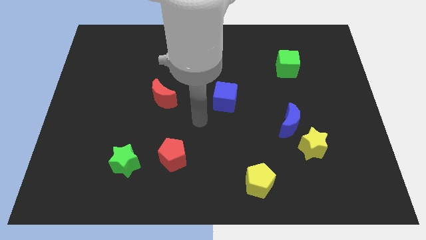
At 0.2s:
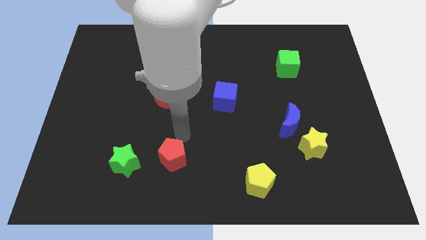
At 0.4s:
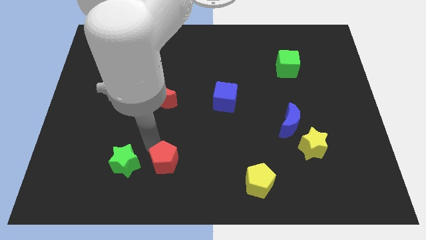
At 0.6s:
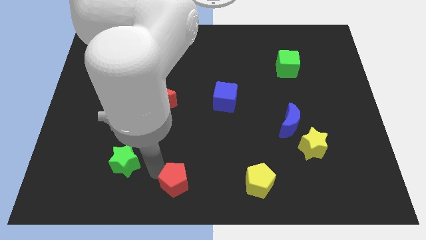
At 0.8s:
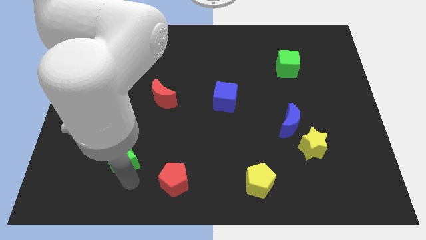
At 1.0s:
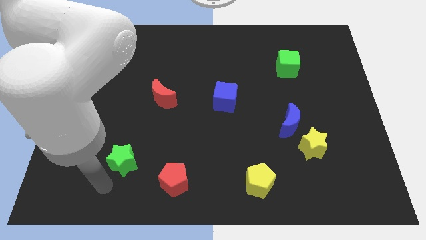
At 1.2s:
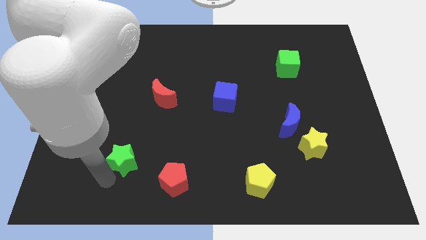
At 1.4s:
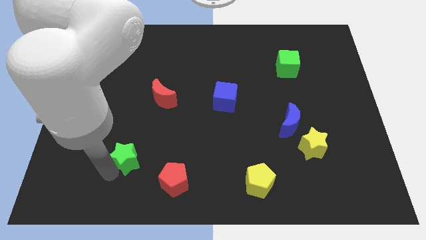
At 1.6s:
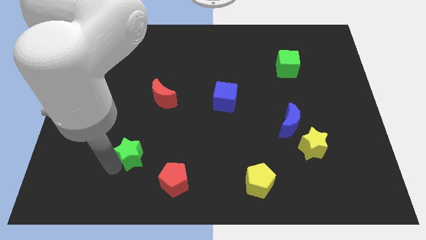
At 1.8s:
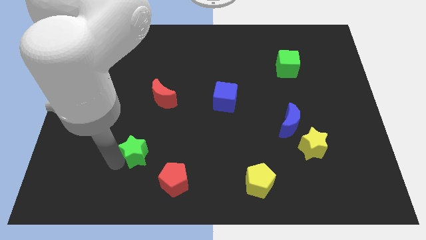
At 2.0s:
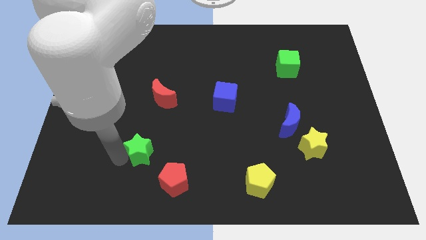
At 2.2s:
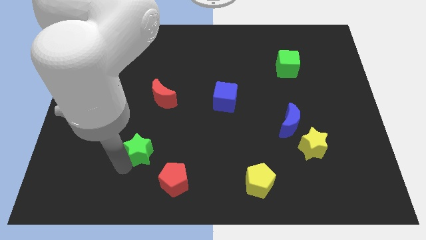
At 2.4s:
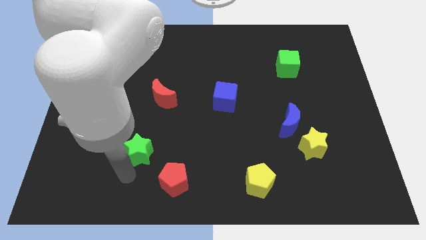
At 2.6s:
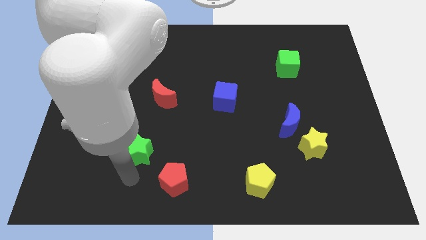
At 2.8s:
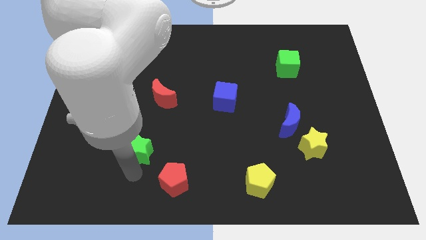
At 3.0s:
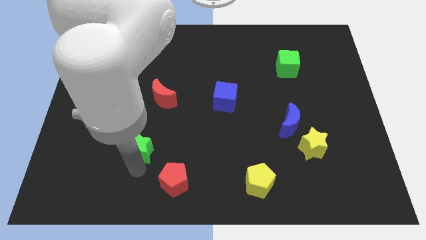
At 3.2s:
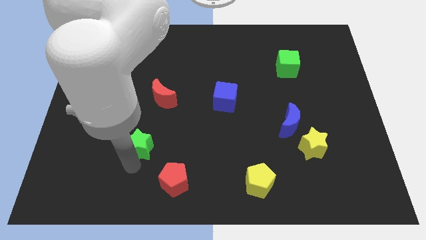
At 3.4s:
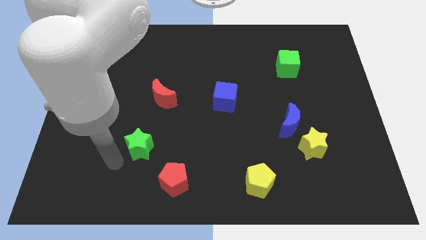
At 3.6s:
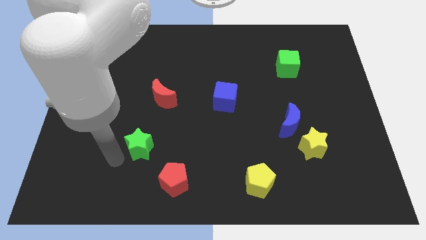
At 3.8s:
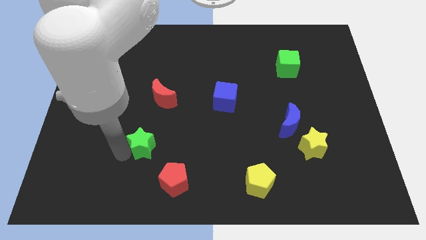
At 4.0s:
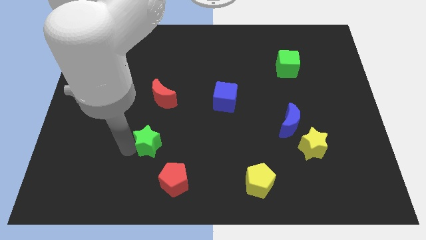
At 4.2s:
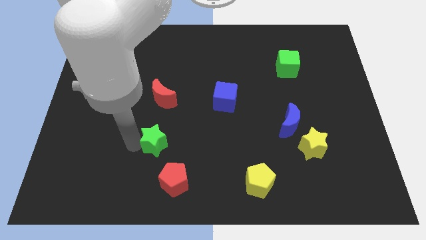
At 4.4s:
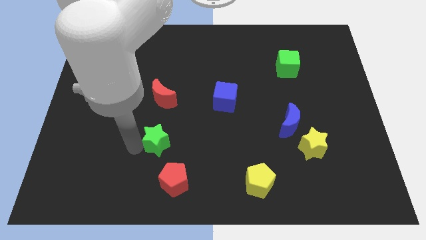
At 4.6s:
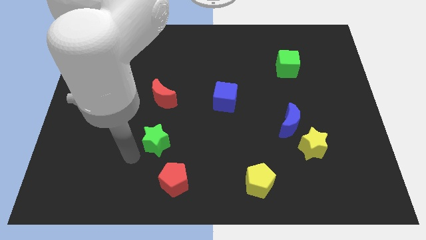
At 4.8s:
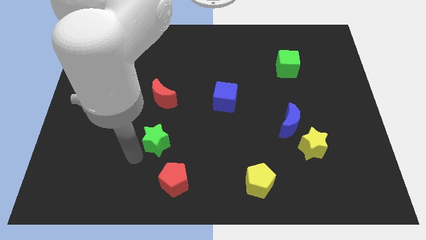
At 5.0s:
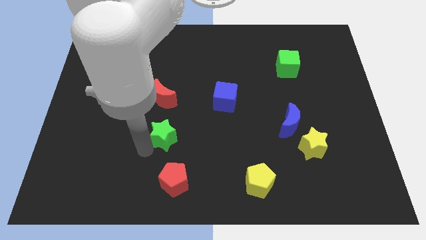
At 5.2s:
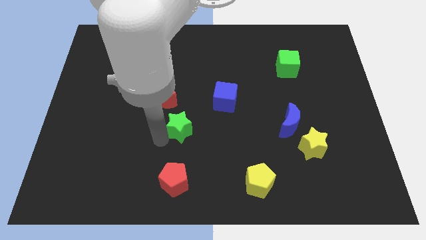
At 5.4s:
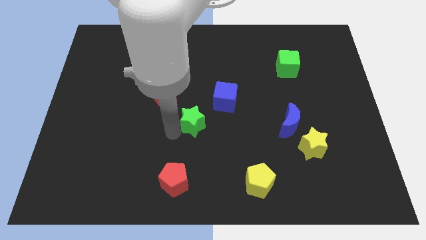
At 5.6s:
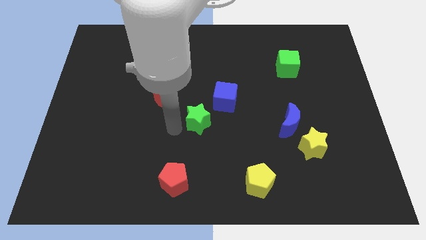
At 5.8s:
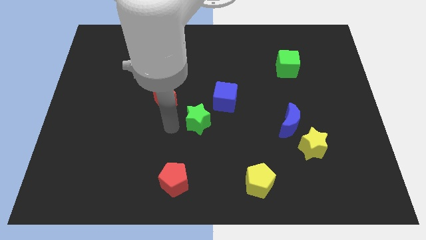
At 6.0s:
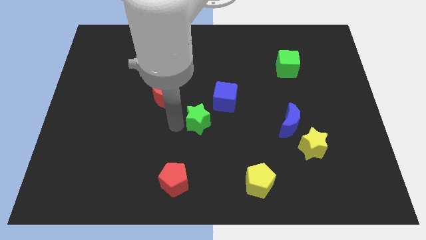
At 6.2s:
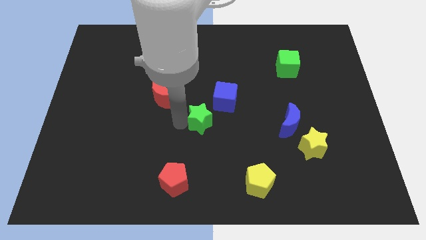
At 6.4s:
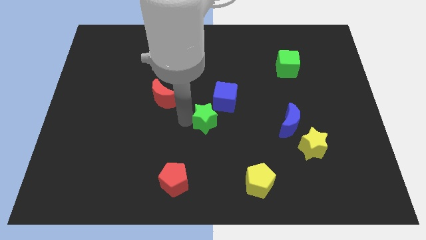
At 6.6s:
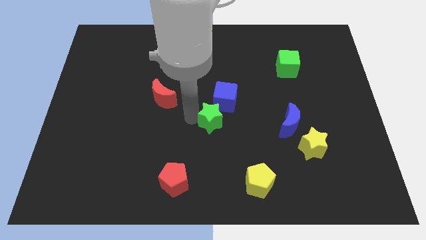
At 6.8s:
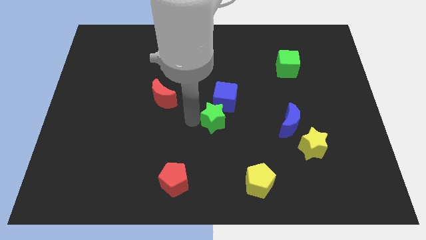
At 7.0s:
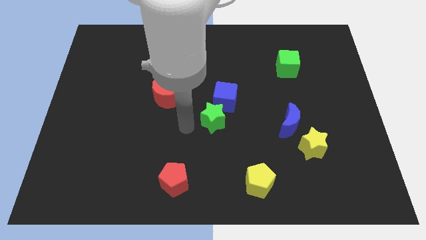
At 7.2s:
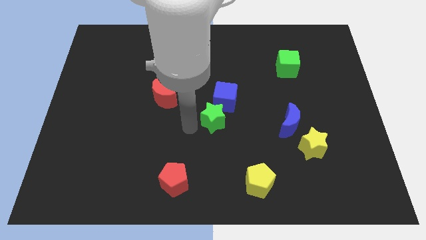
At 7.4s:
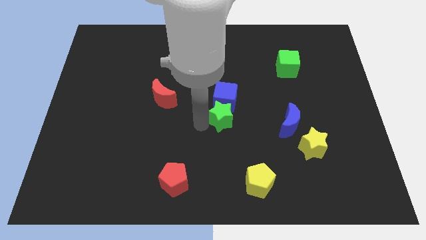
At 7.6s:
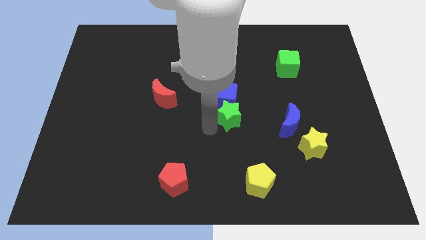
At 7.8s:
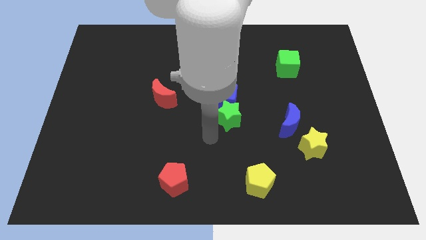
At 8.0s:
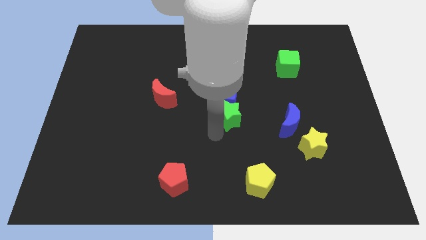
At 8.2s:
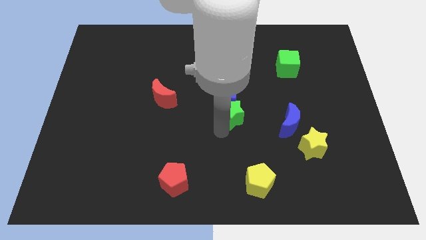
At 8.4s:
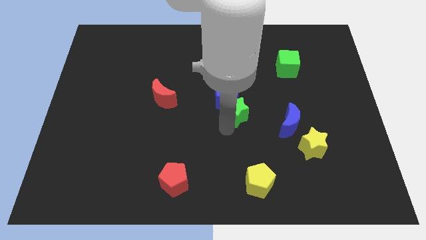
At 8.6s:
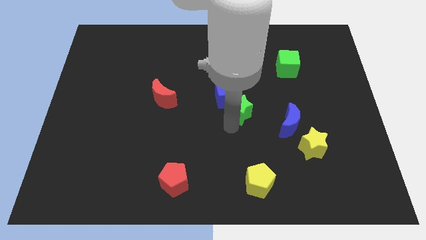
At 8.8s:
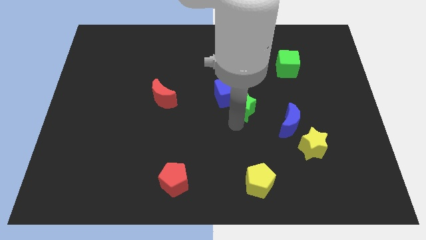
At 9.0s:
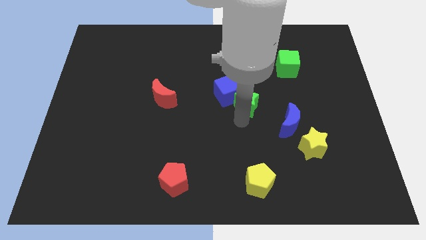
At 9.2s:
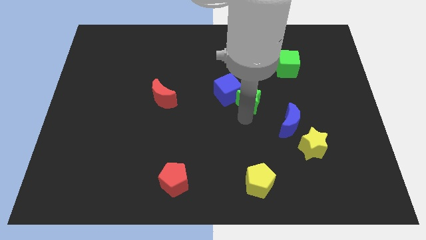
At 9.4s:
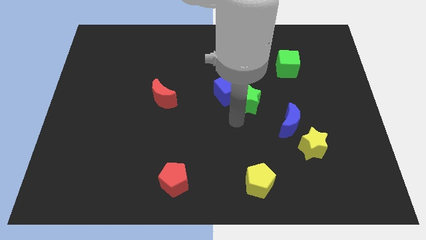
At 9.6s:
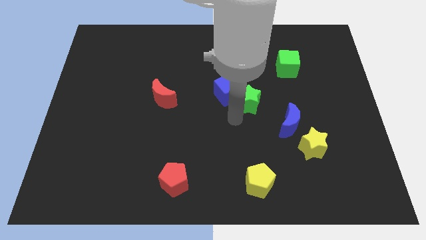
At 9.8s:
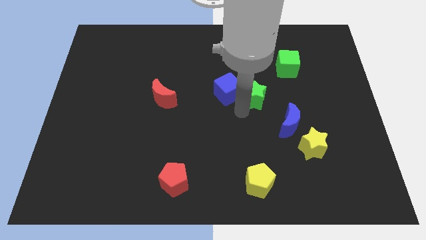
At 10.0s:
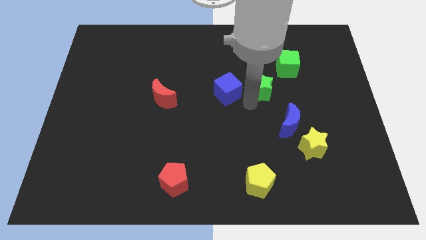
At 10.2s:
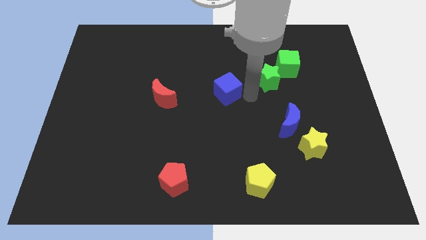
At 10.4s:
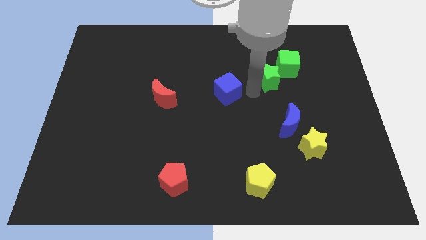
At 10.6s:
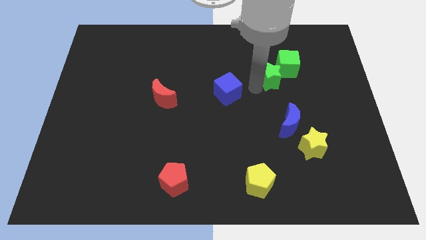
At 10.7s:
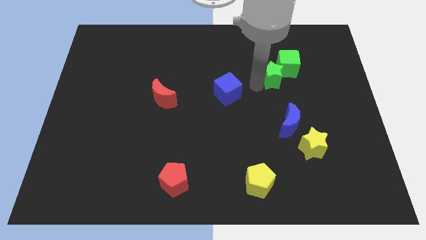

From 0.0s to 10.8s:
slide the green star next to the green cube

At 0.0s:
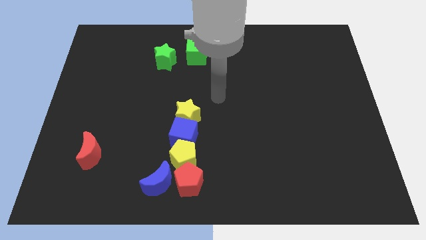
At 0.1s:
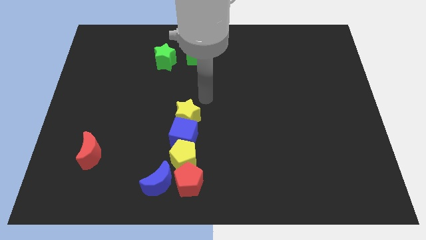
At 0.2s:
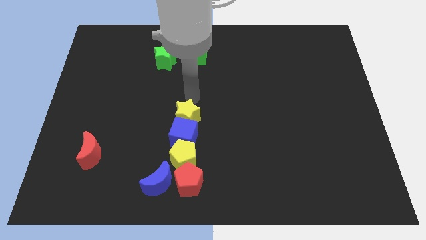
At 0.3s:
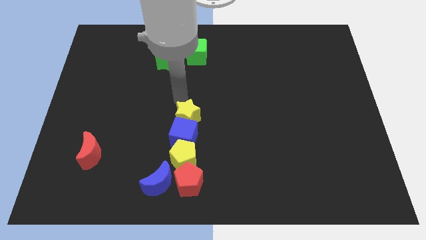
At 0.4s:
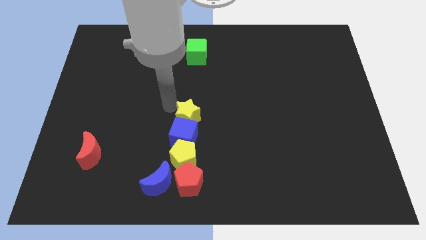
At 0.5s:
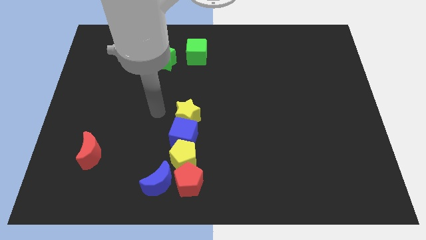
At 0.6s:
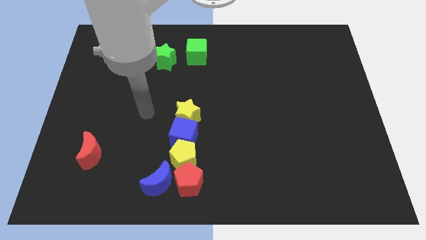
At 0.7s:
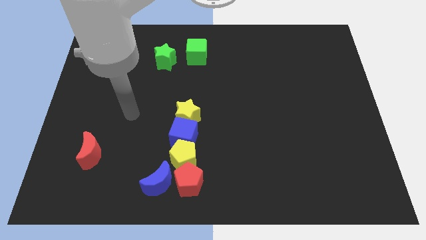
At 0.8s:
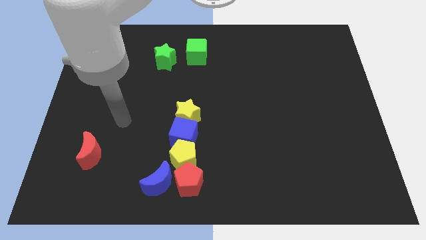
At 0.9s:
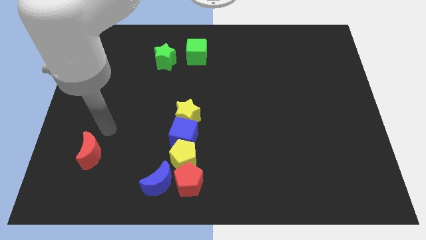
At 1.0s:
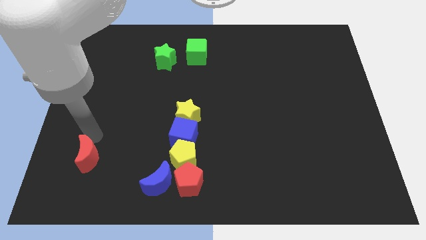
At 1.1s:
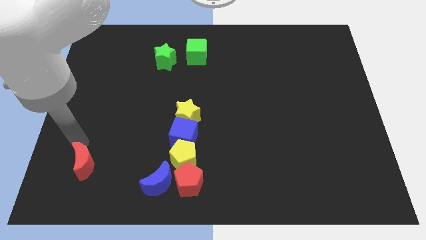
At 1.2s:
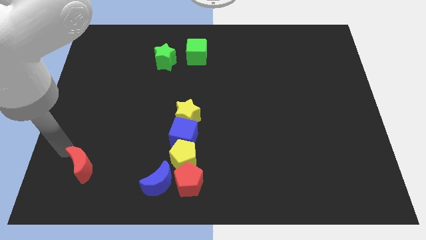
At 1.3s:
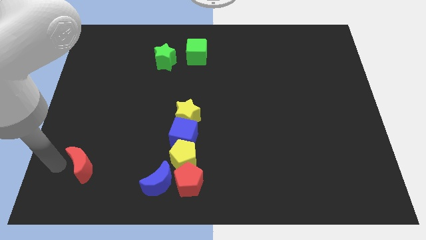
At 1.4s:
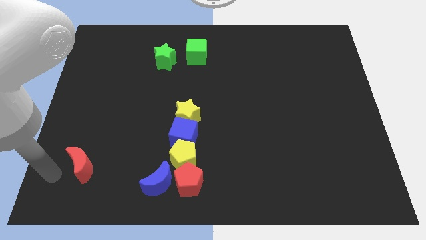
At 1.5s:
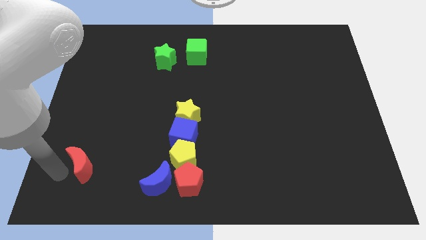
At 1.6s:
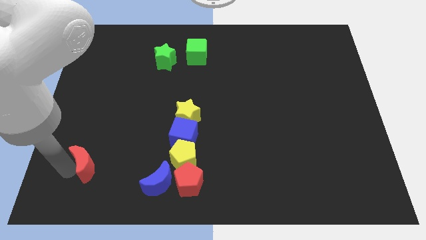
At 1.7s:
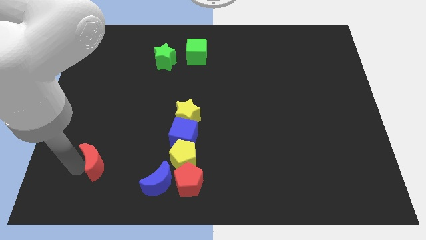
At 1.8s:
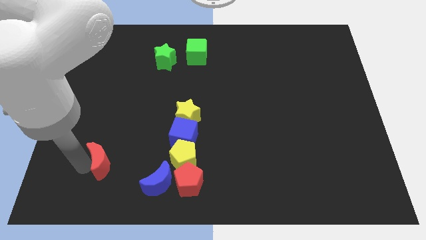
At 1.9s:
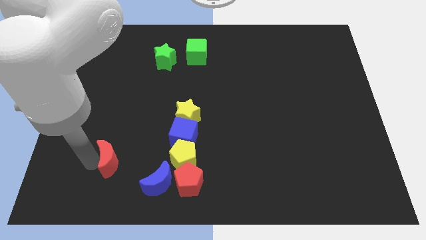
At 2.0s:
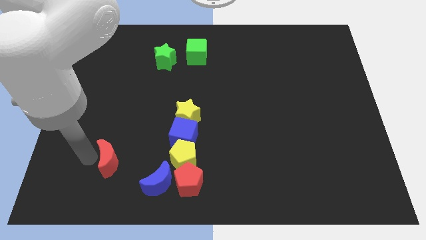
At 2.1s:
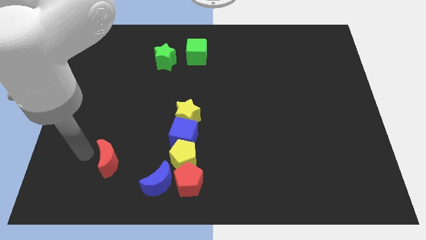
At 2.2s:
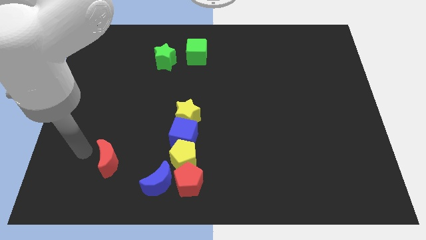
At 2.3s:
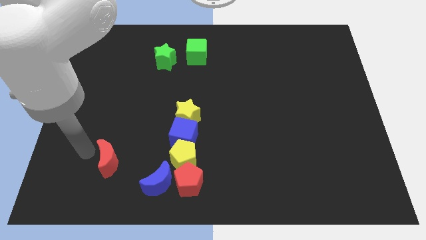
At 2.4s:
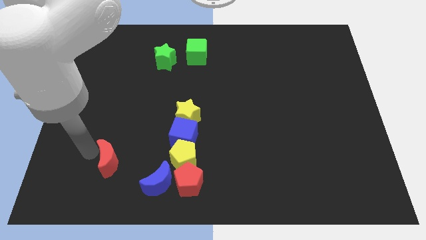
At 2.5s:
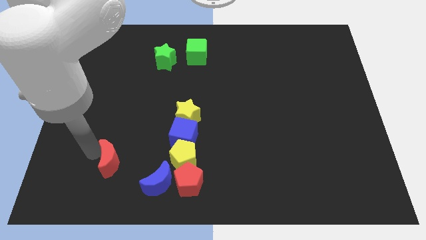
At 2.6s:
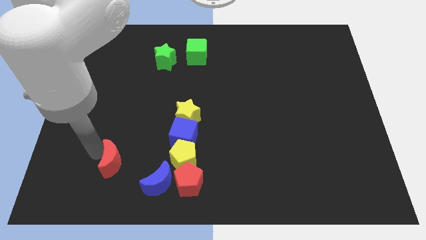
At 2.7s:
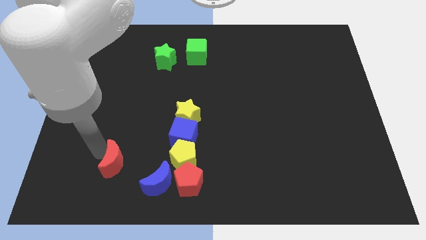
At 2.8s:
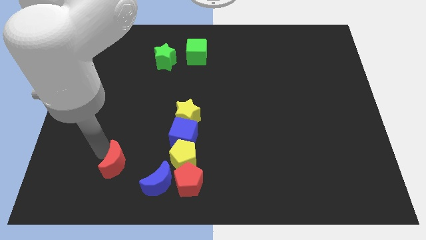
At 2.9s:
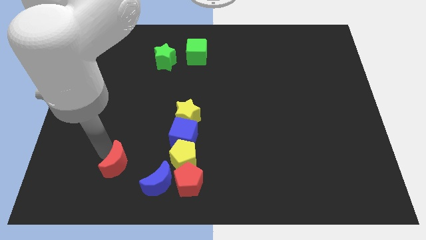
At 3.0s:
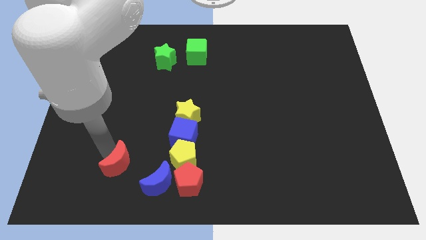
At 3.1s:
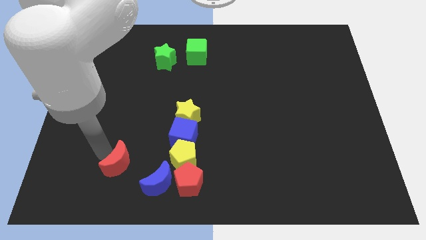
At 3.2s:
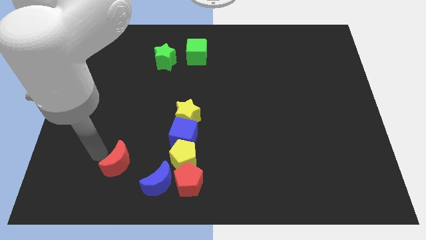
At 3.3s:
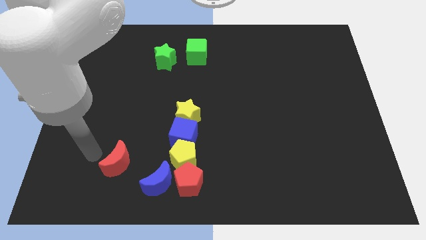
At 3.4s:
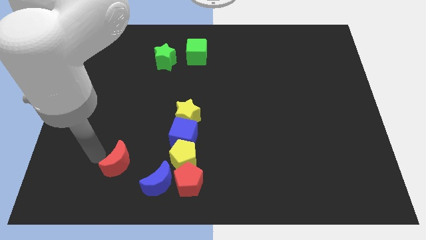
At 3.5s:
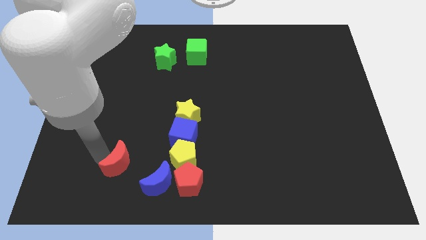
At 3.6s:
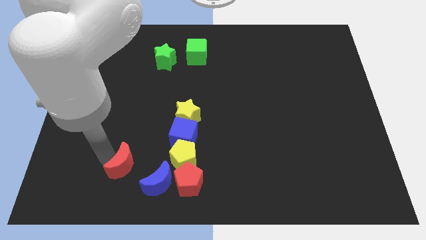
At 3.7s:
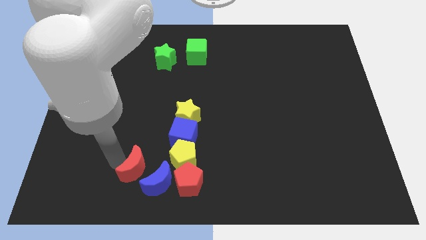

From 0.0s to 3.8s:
push the red moon to the blue moon
